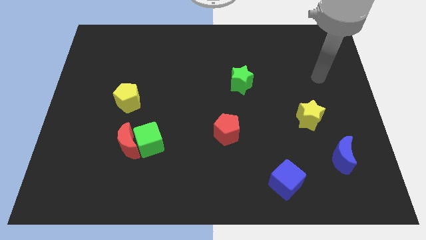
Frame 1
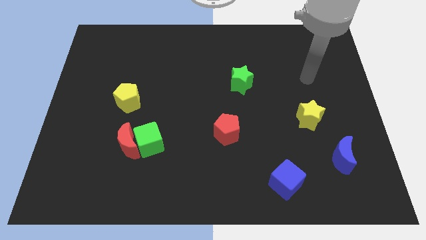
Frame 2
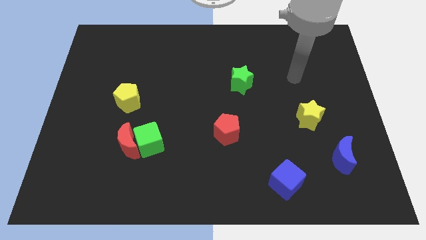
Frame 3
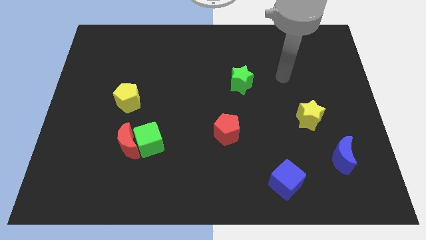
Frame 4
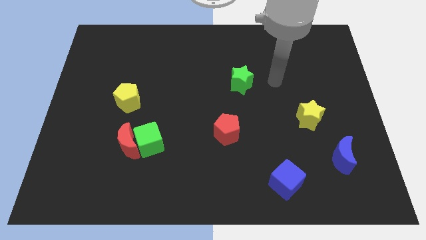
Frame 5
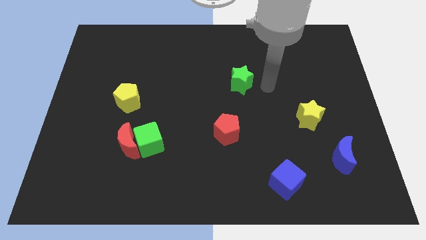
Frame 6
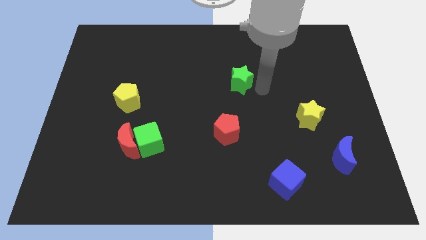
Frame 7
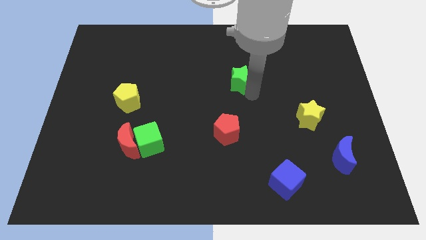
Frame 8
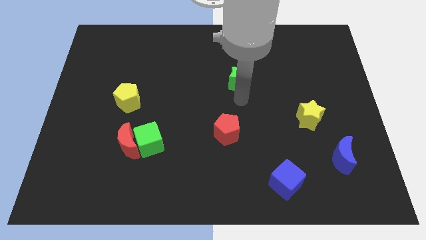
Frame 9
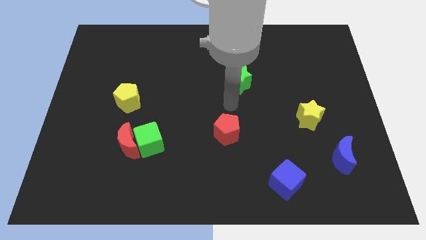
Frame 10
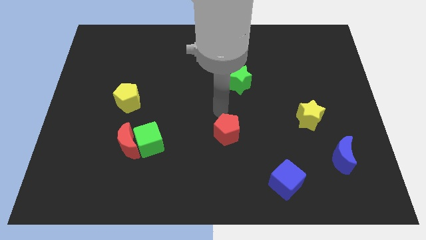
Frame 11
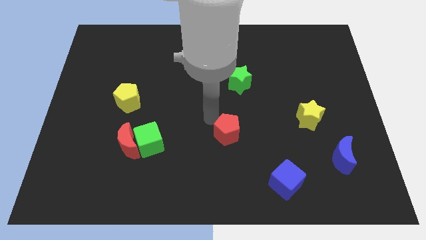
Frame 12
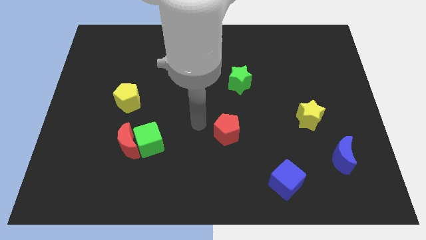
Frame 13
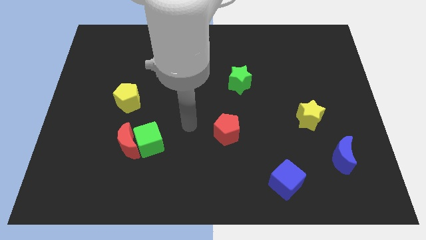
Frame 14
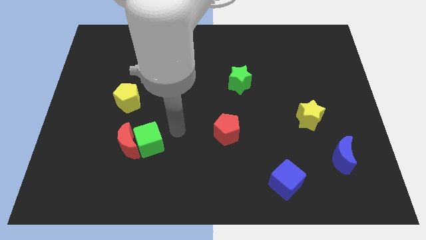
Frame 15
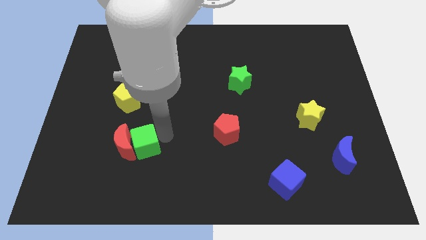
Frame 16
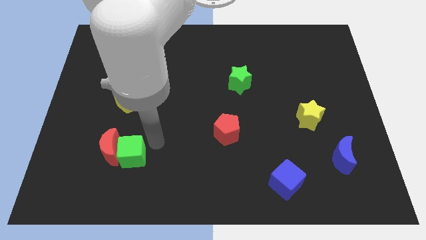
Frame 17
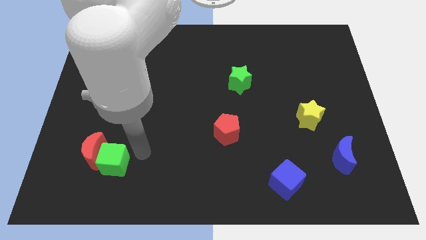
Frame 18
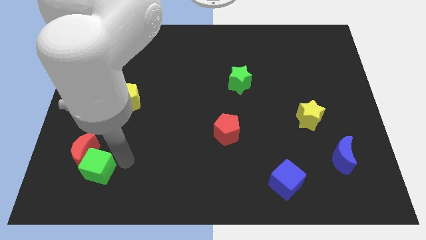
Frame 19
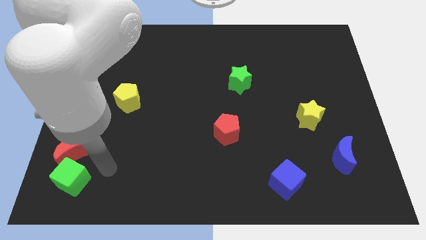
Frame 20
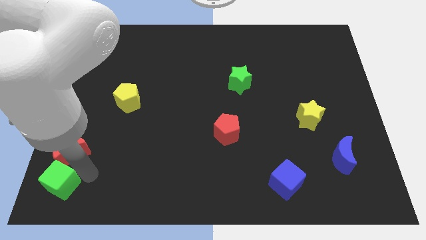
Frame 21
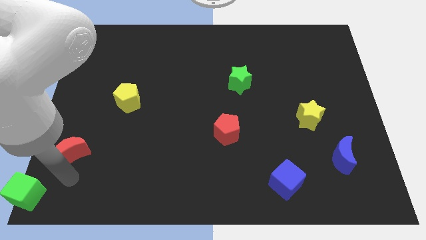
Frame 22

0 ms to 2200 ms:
pull the red moon apart from the green cube

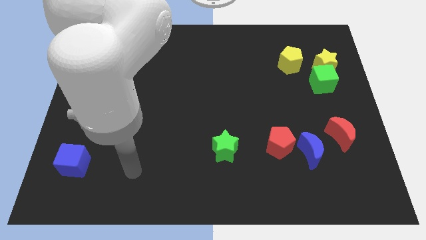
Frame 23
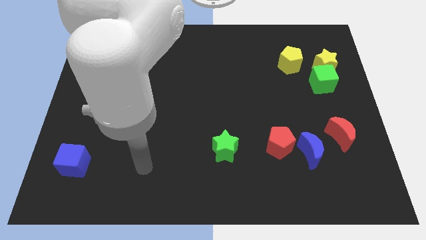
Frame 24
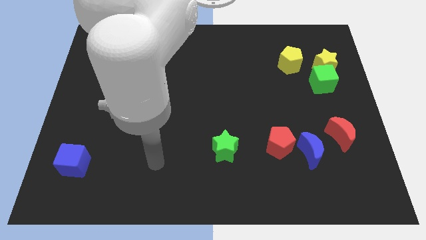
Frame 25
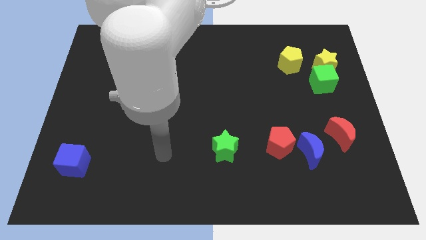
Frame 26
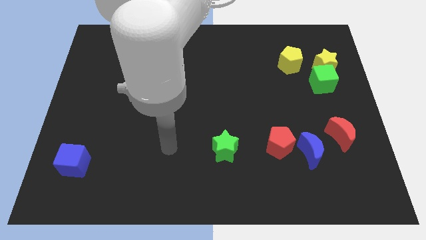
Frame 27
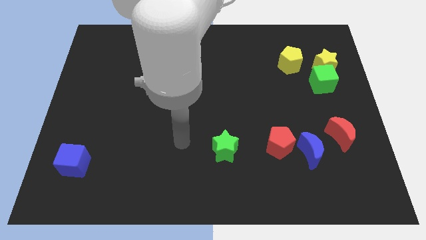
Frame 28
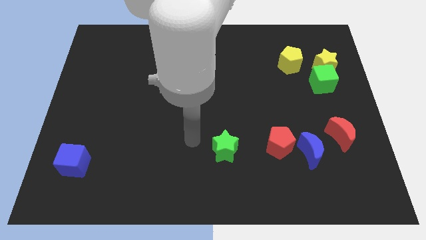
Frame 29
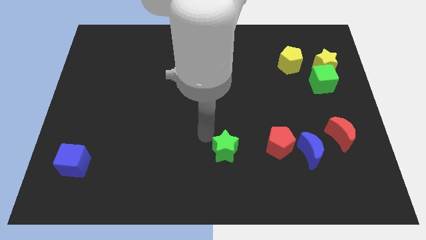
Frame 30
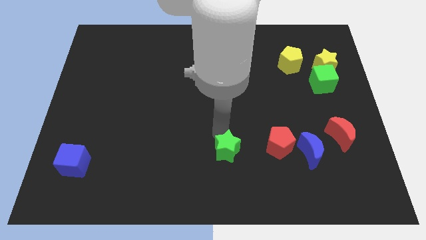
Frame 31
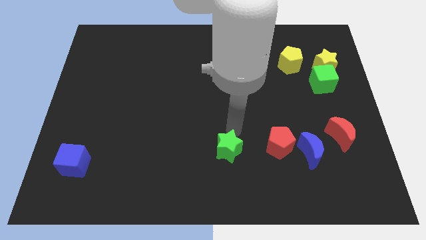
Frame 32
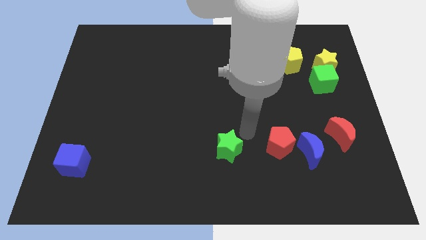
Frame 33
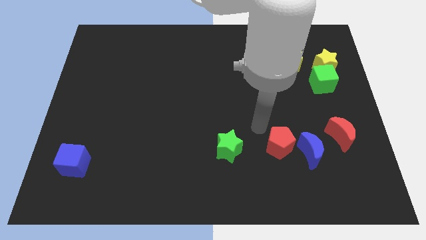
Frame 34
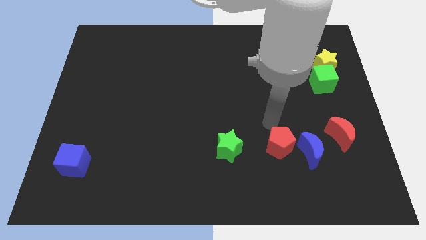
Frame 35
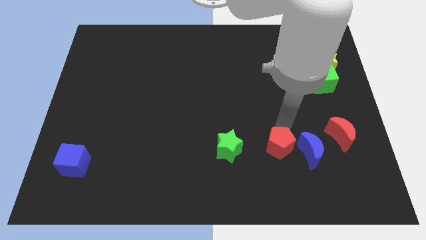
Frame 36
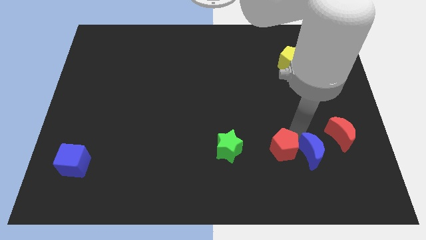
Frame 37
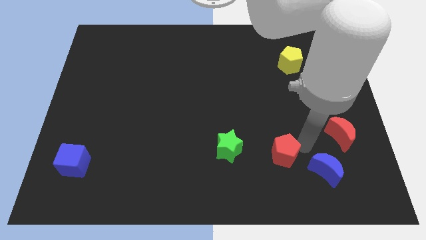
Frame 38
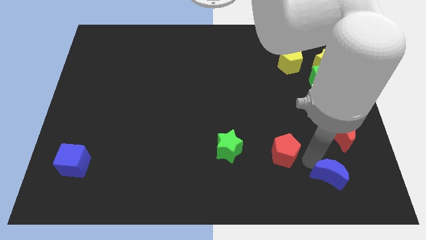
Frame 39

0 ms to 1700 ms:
move the red pentagon away from the blue moon

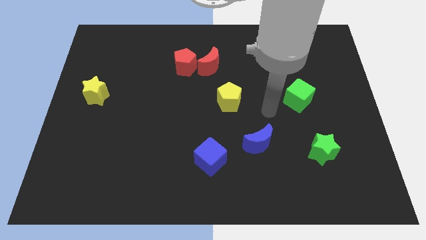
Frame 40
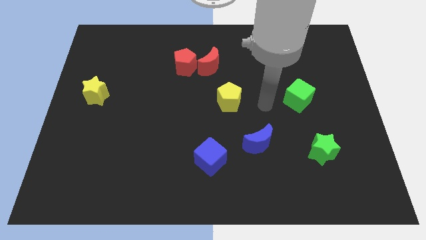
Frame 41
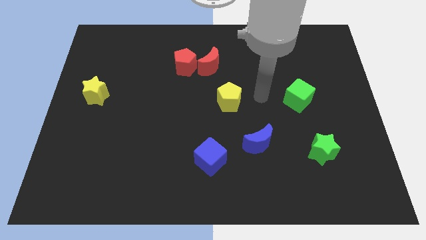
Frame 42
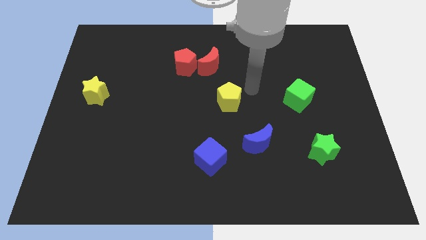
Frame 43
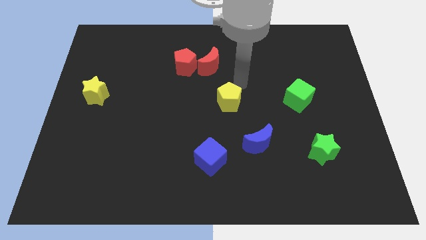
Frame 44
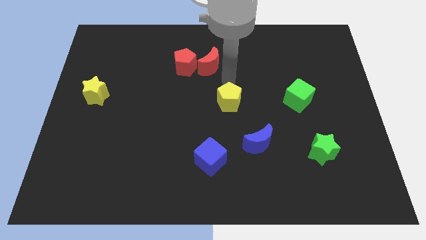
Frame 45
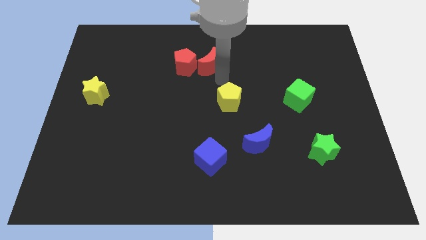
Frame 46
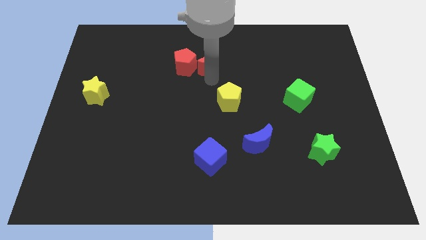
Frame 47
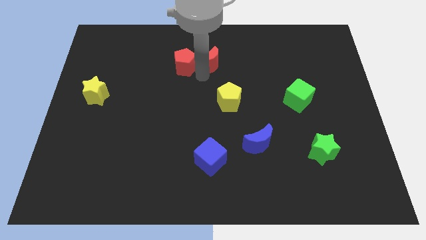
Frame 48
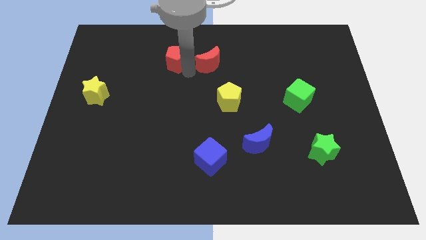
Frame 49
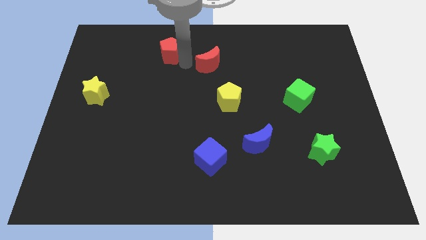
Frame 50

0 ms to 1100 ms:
pull the red moon apart from the red pentagon

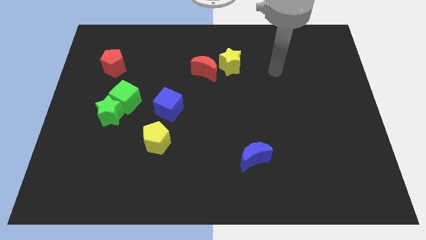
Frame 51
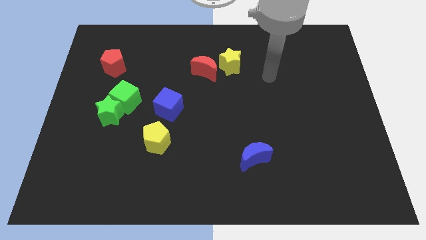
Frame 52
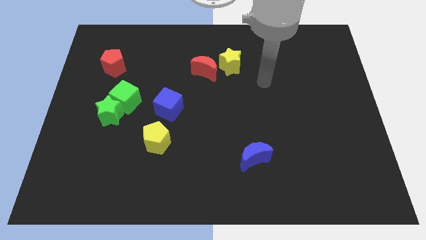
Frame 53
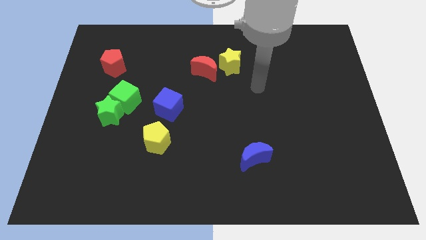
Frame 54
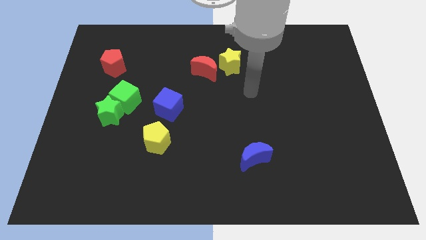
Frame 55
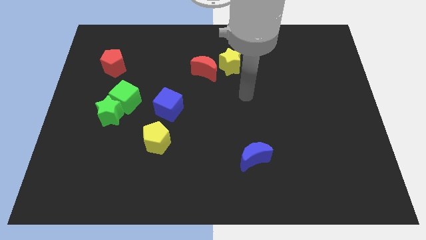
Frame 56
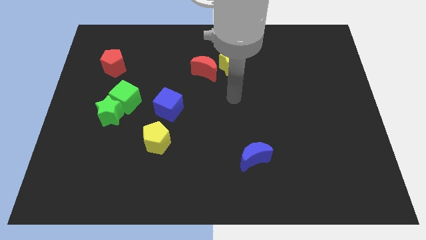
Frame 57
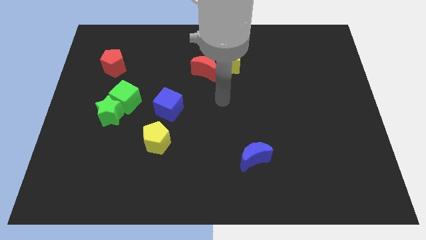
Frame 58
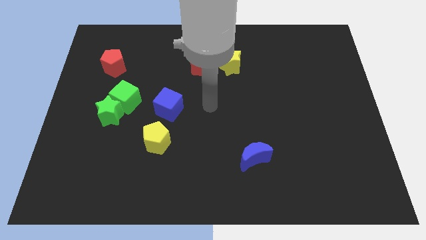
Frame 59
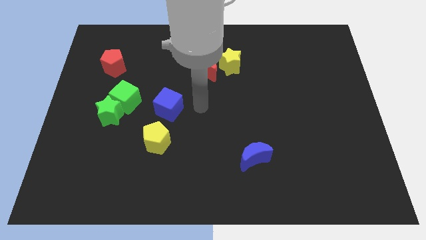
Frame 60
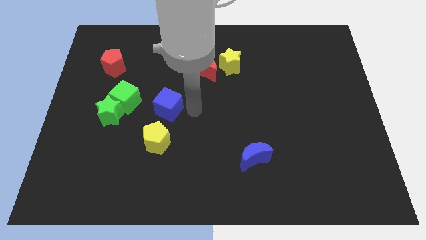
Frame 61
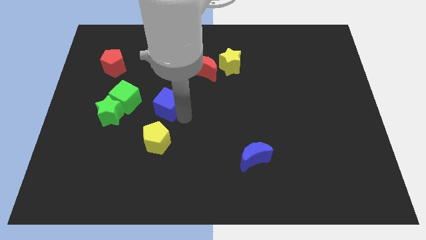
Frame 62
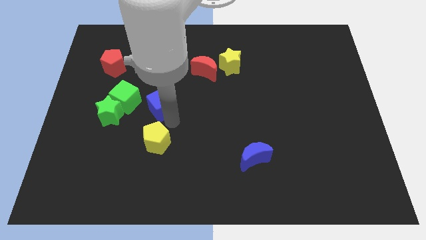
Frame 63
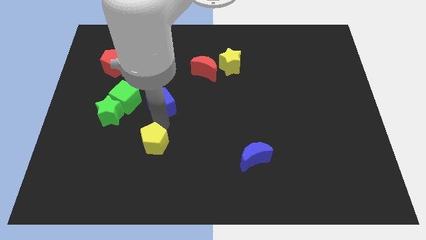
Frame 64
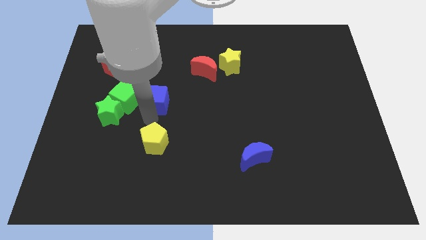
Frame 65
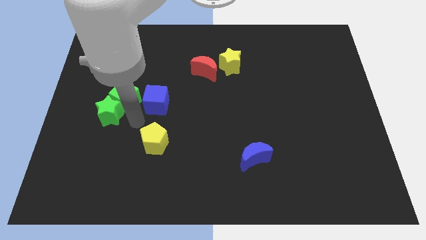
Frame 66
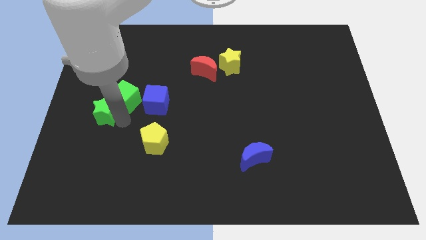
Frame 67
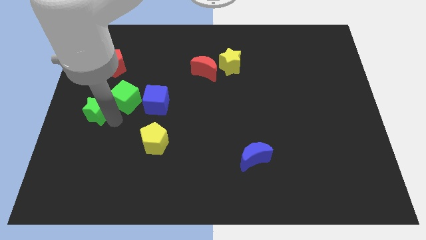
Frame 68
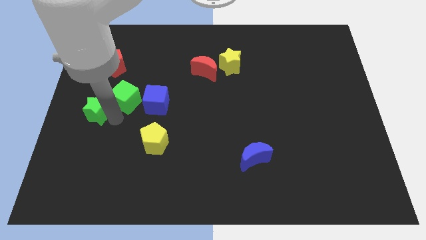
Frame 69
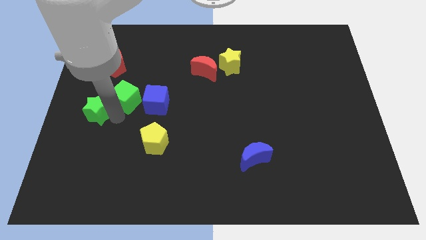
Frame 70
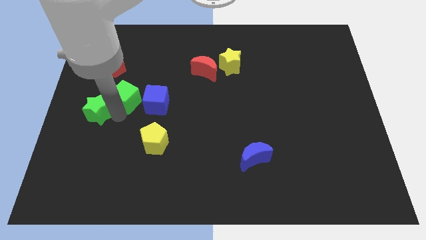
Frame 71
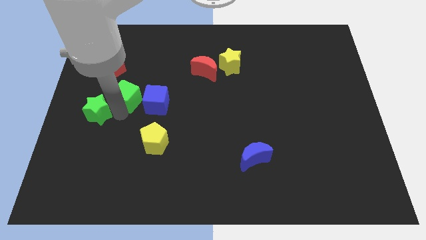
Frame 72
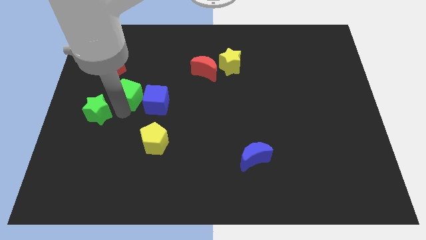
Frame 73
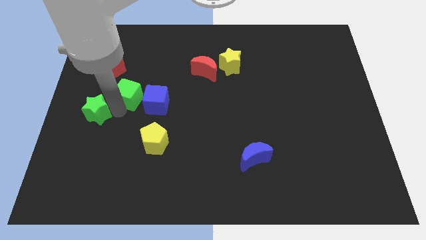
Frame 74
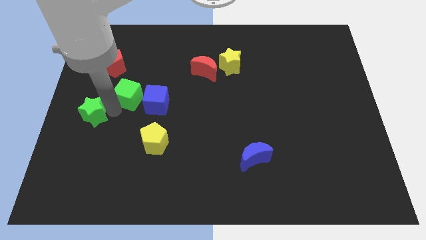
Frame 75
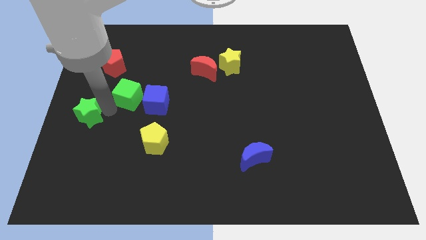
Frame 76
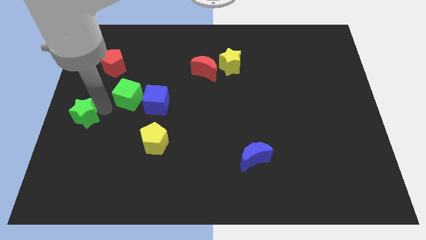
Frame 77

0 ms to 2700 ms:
separate the green cube from the green star

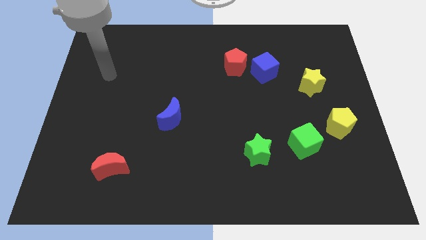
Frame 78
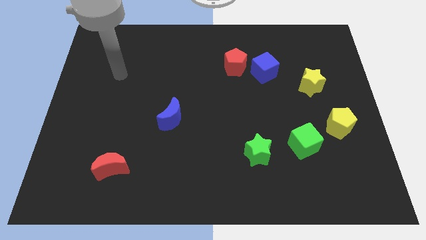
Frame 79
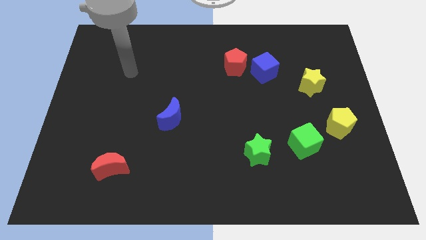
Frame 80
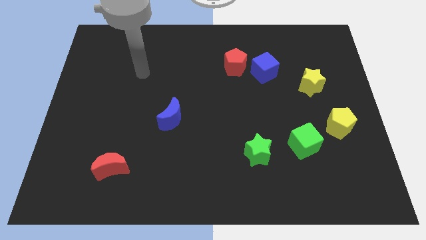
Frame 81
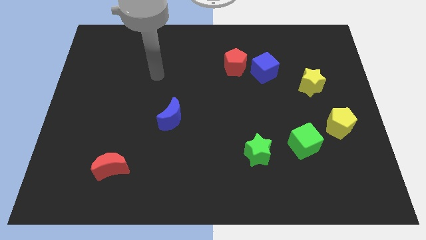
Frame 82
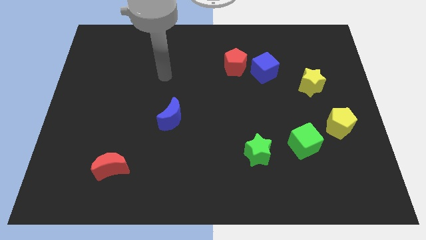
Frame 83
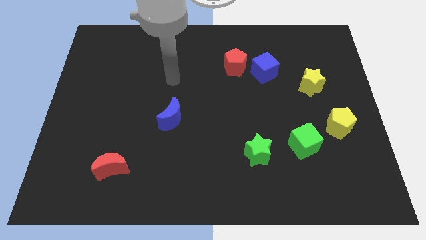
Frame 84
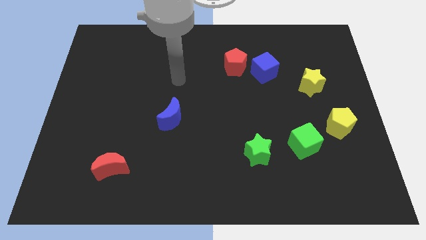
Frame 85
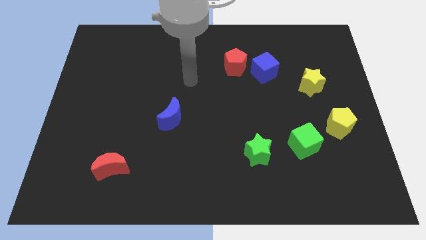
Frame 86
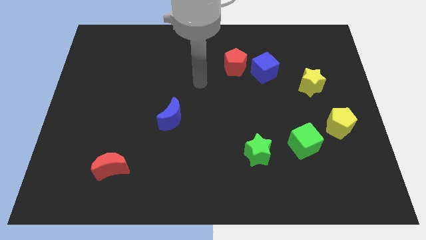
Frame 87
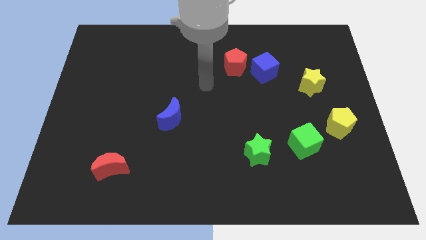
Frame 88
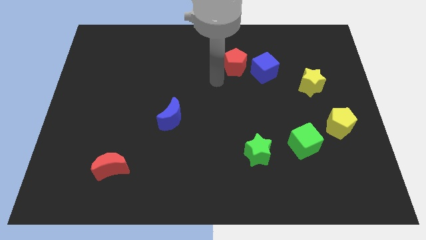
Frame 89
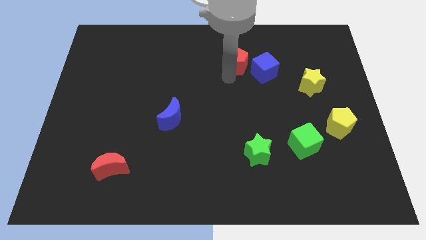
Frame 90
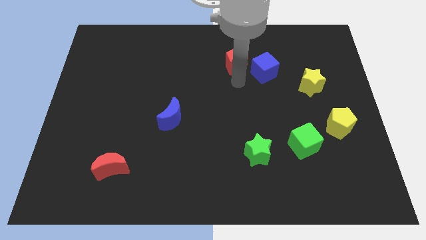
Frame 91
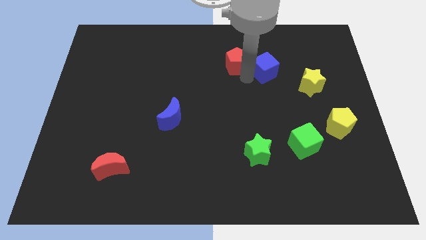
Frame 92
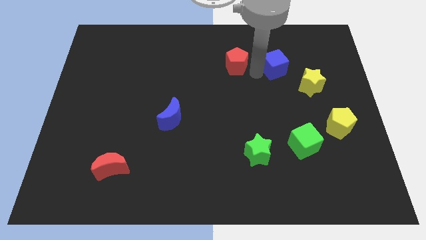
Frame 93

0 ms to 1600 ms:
pull the red pentagon apart from the blue cube
